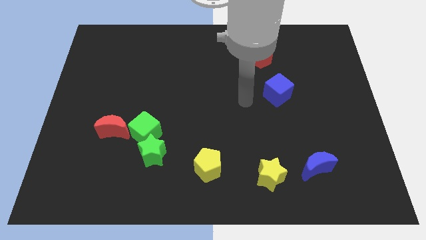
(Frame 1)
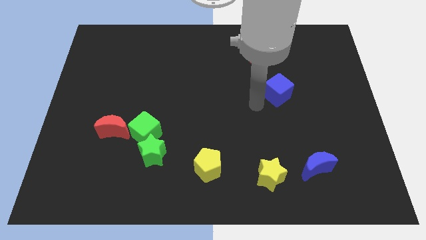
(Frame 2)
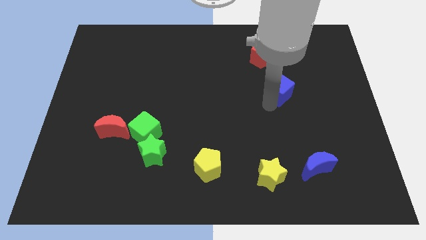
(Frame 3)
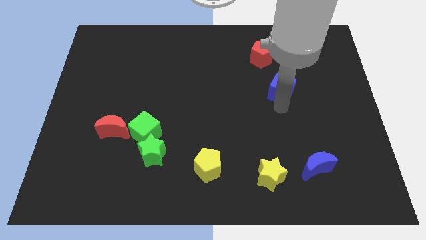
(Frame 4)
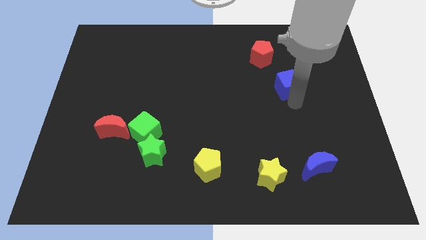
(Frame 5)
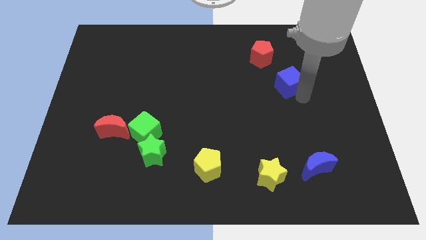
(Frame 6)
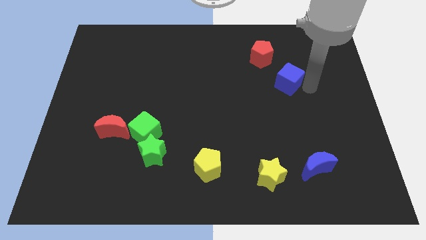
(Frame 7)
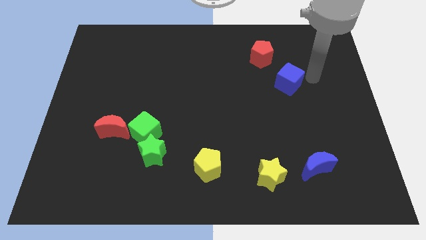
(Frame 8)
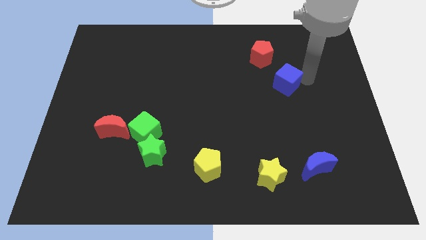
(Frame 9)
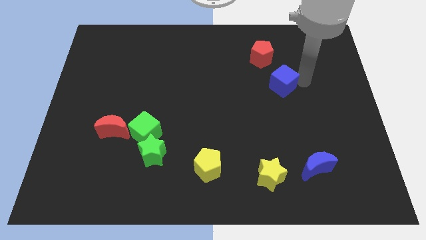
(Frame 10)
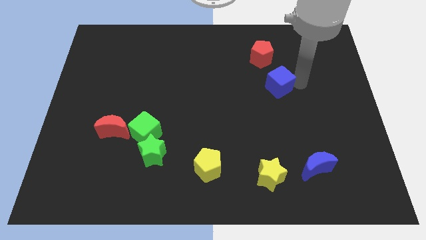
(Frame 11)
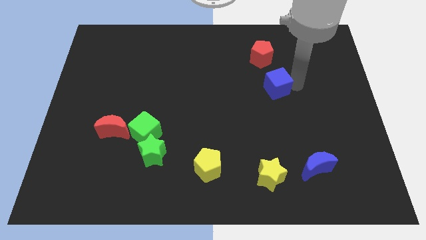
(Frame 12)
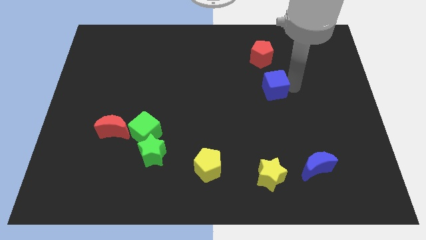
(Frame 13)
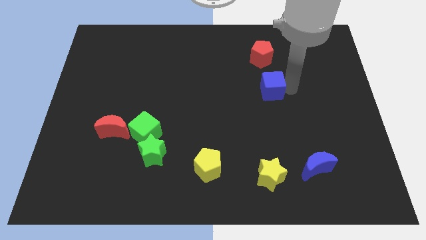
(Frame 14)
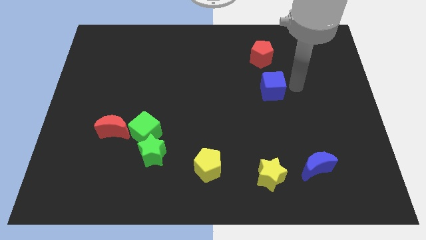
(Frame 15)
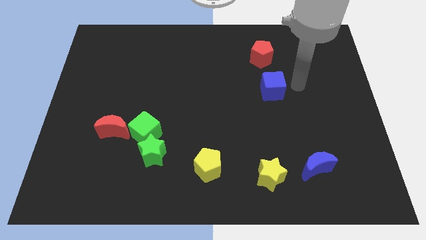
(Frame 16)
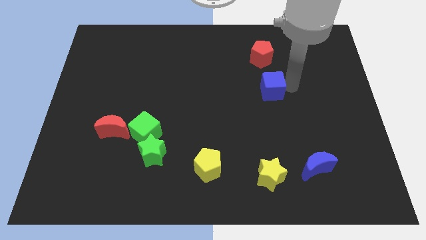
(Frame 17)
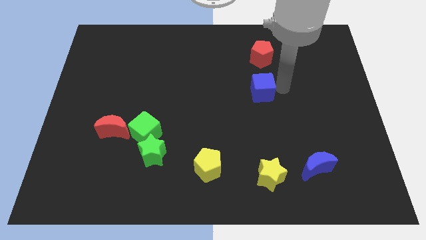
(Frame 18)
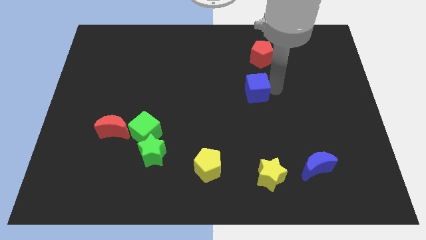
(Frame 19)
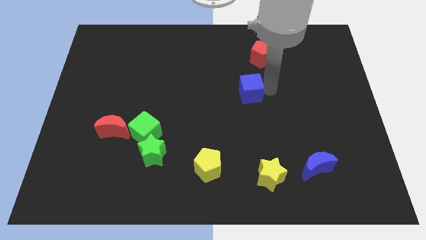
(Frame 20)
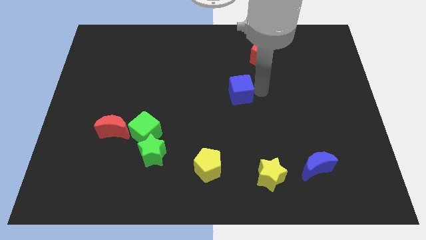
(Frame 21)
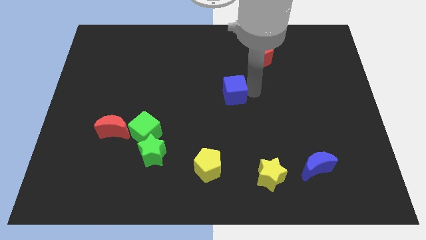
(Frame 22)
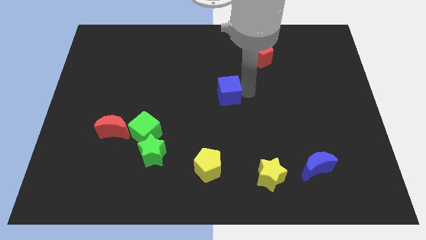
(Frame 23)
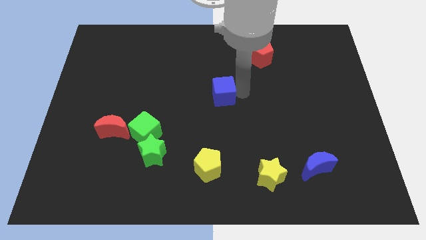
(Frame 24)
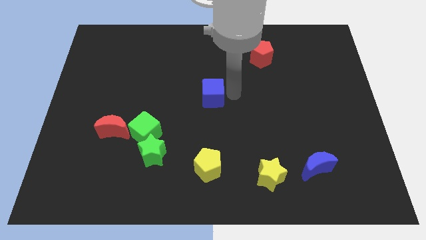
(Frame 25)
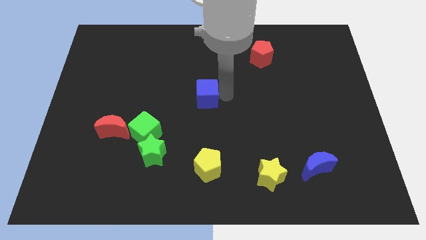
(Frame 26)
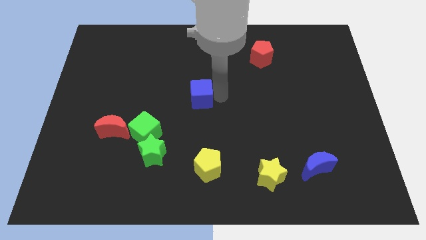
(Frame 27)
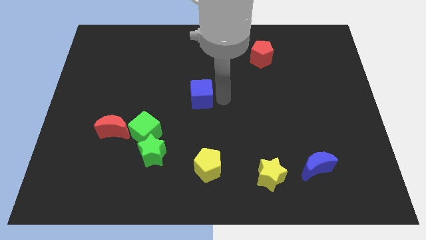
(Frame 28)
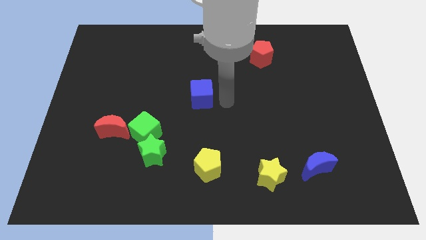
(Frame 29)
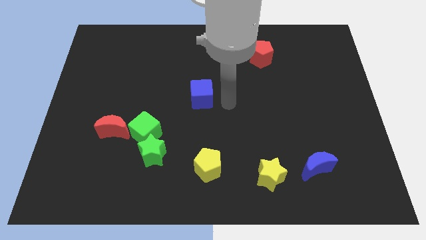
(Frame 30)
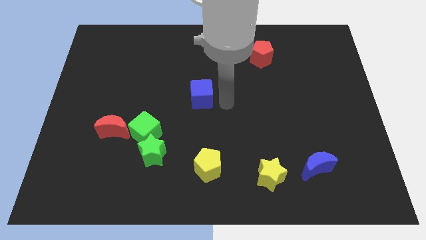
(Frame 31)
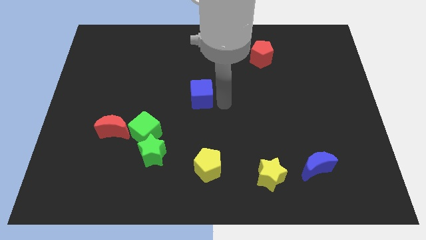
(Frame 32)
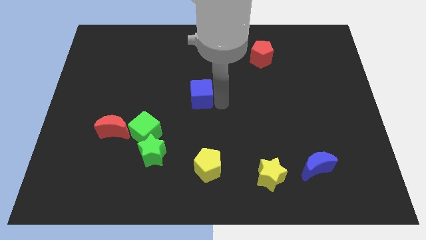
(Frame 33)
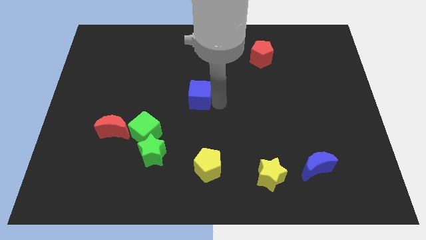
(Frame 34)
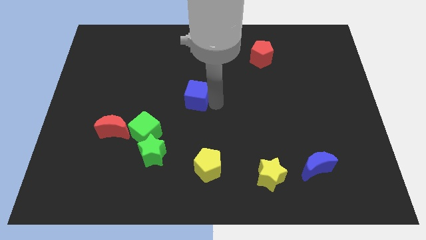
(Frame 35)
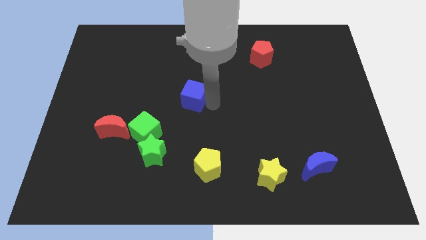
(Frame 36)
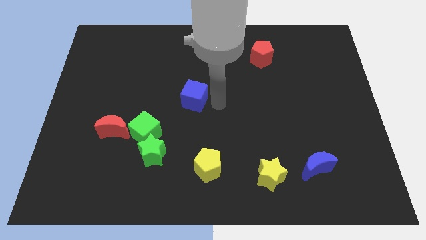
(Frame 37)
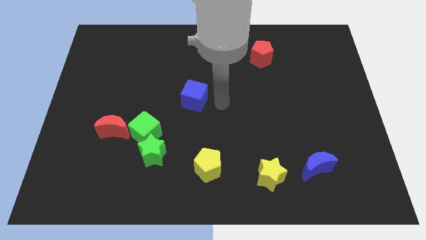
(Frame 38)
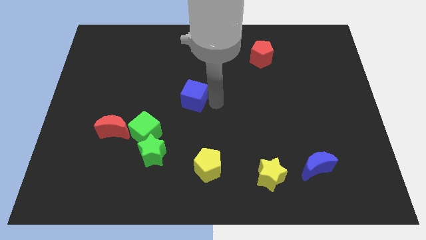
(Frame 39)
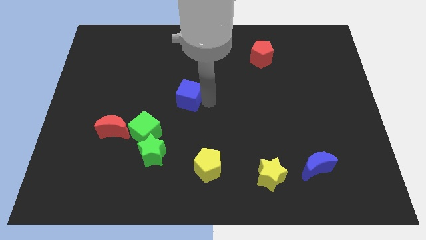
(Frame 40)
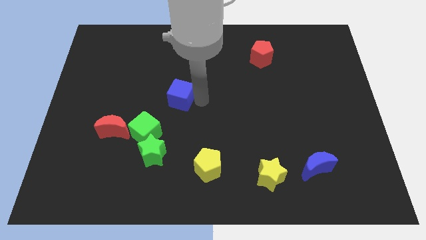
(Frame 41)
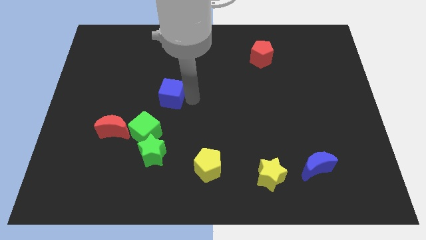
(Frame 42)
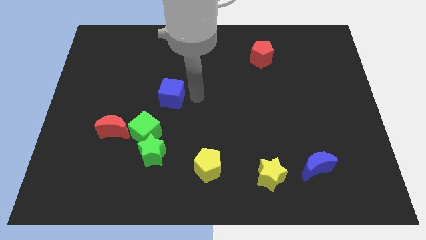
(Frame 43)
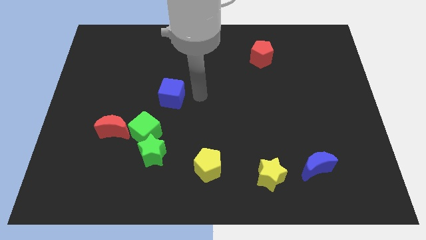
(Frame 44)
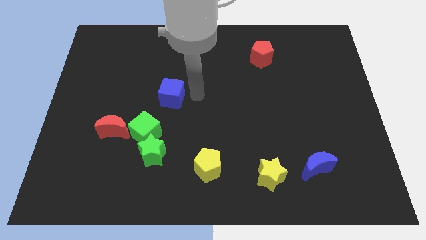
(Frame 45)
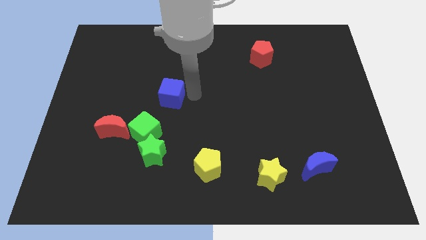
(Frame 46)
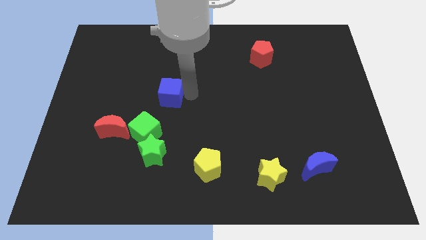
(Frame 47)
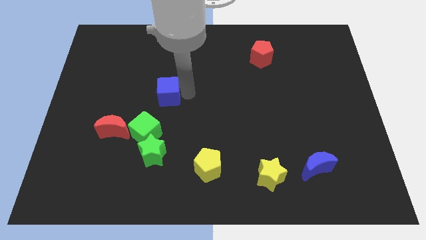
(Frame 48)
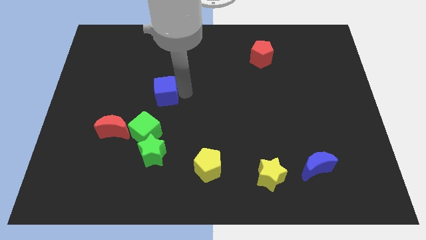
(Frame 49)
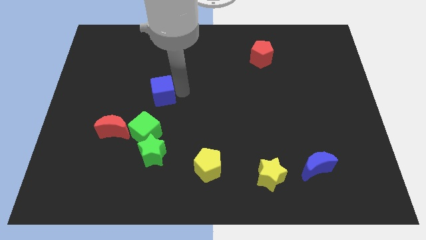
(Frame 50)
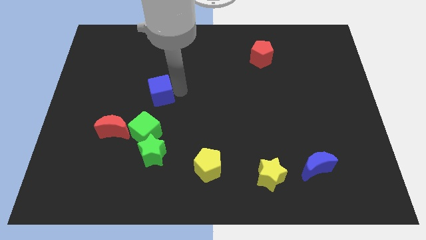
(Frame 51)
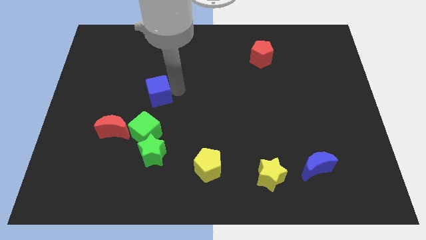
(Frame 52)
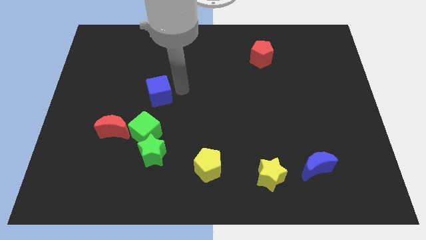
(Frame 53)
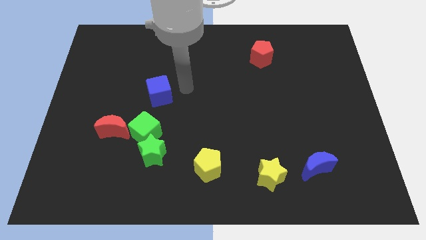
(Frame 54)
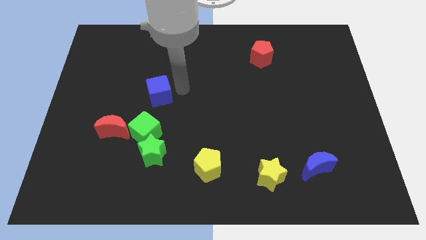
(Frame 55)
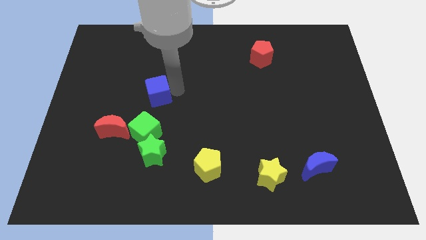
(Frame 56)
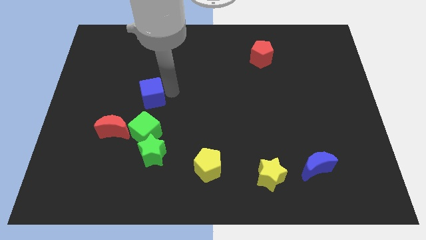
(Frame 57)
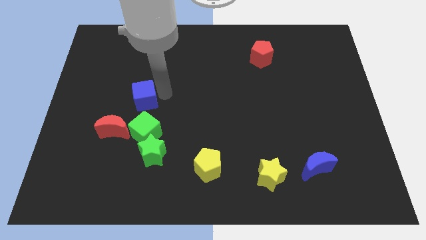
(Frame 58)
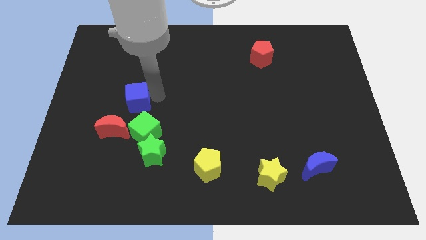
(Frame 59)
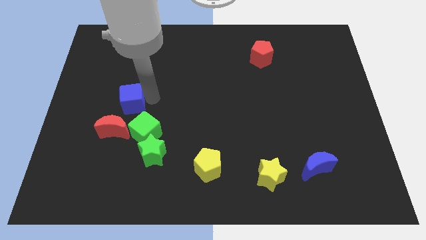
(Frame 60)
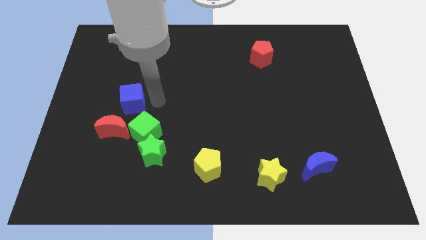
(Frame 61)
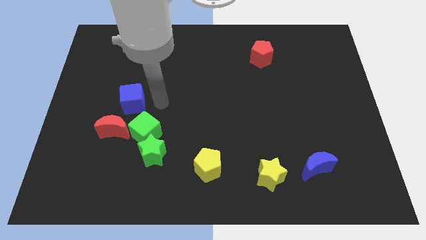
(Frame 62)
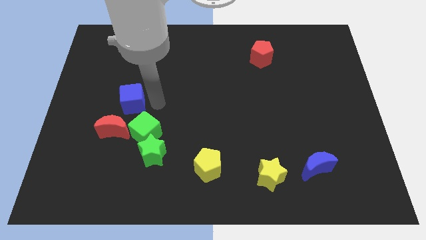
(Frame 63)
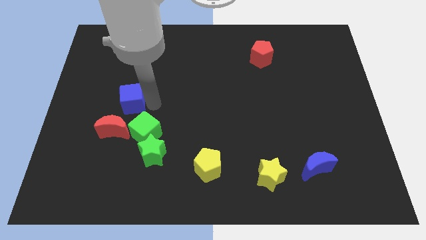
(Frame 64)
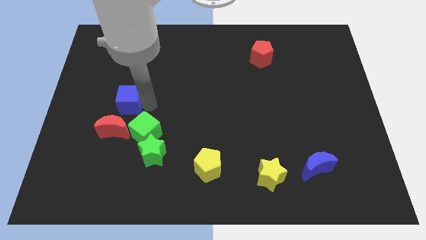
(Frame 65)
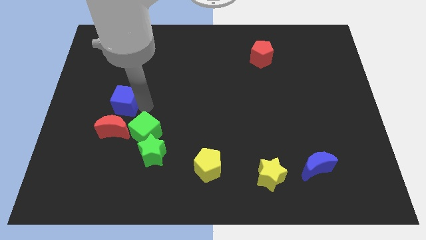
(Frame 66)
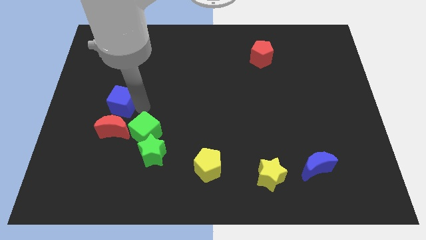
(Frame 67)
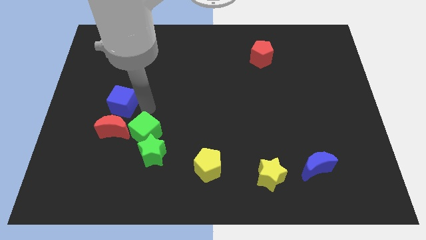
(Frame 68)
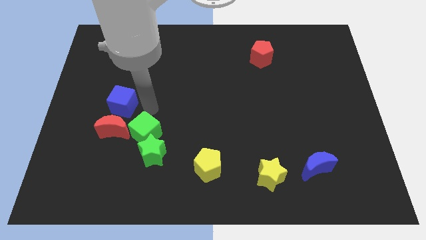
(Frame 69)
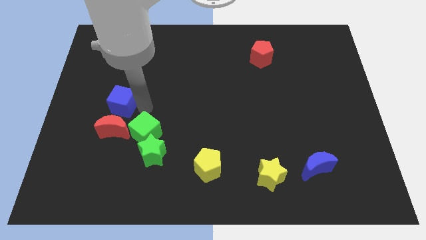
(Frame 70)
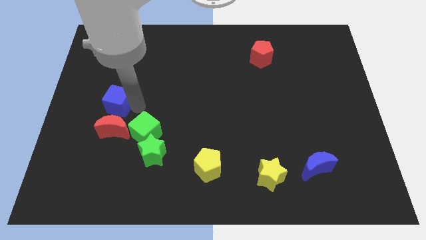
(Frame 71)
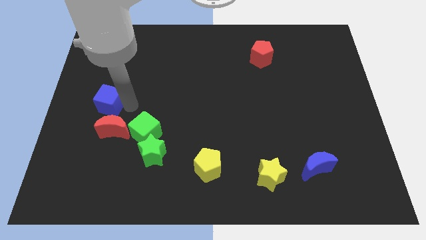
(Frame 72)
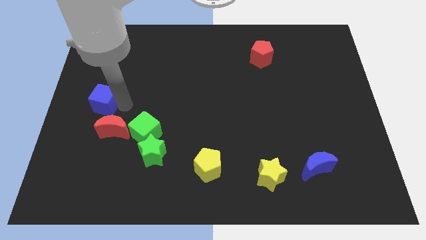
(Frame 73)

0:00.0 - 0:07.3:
slide the blue cube to the left side
